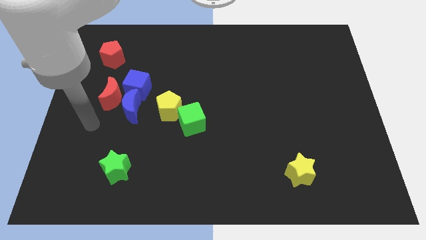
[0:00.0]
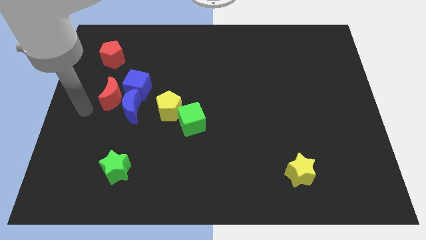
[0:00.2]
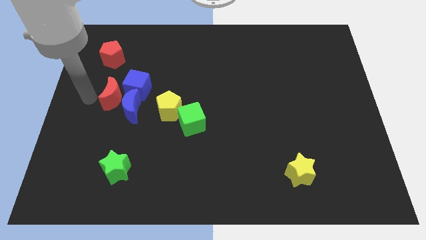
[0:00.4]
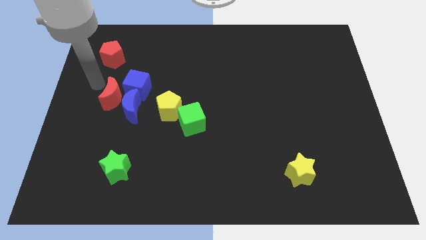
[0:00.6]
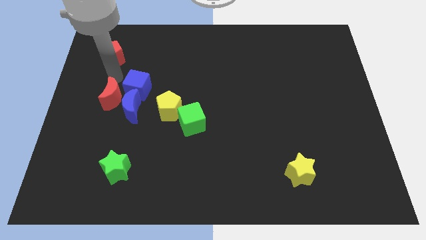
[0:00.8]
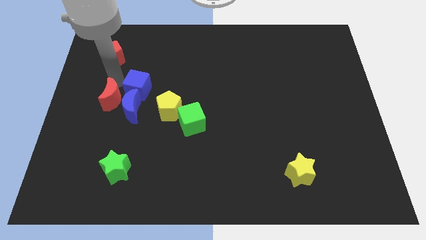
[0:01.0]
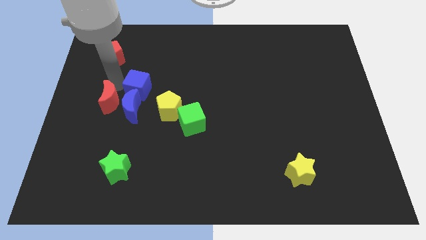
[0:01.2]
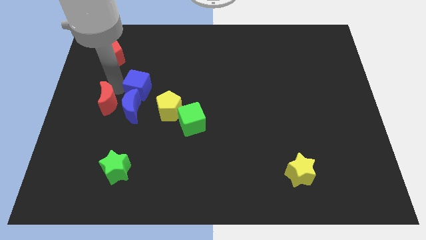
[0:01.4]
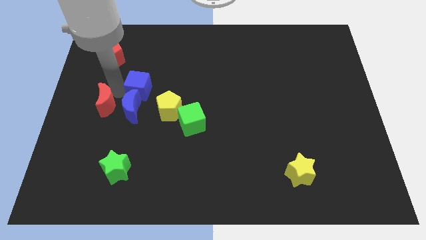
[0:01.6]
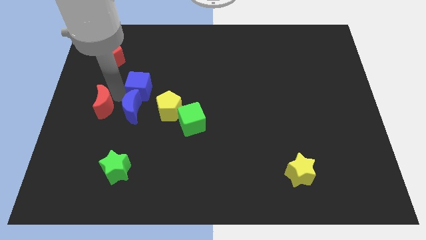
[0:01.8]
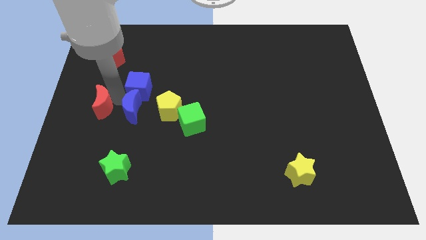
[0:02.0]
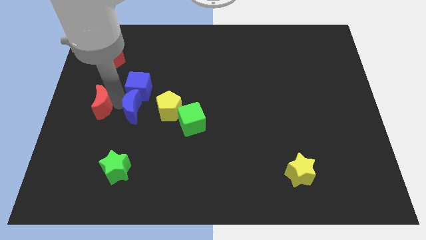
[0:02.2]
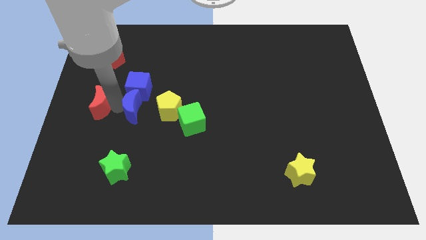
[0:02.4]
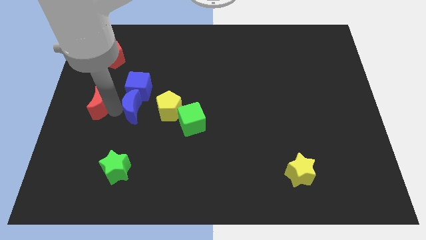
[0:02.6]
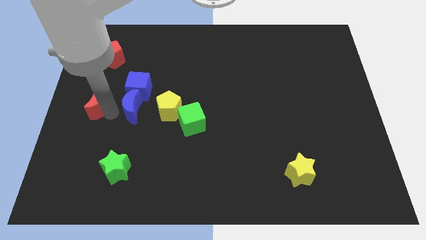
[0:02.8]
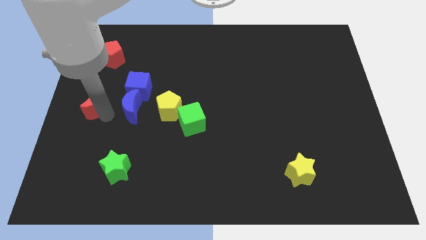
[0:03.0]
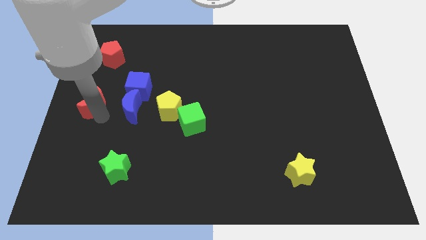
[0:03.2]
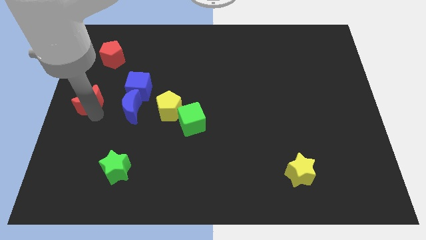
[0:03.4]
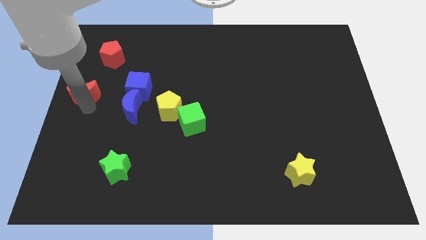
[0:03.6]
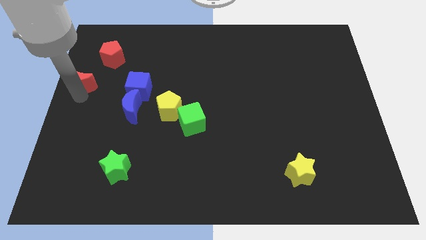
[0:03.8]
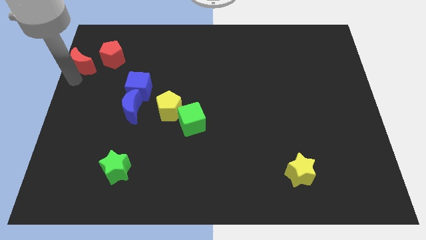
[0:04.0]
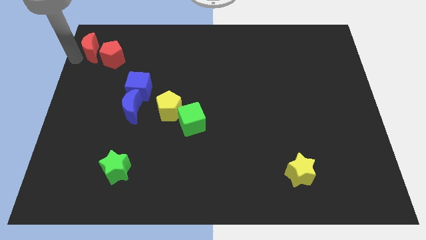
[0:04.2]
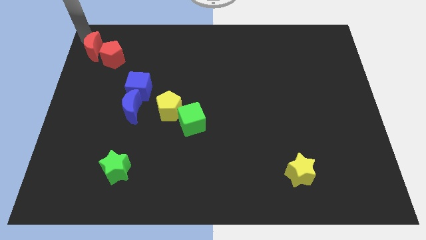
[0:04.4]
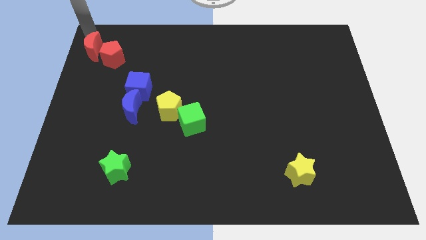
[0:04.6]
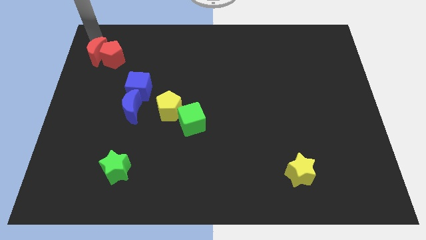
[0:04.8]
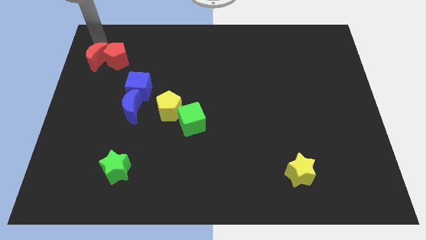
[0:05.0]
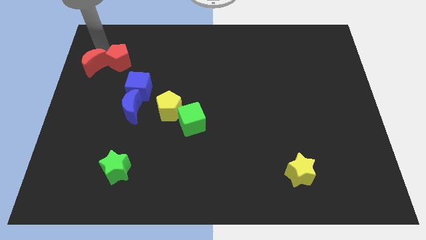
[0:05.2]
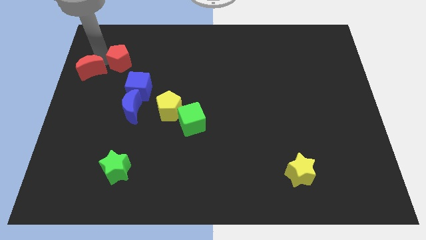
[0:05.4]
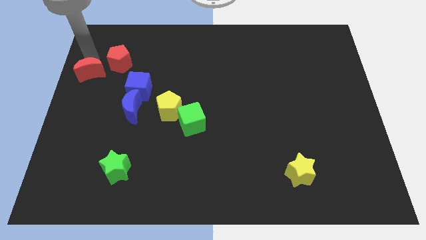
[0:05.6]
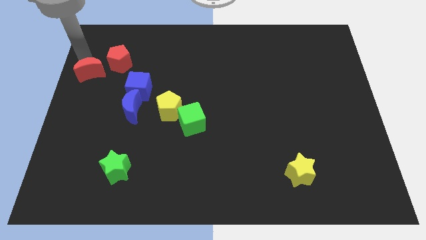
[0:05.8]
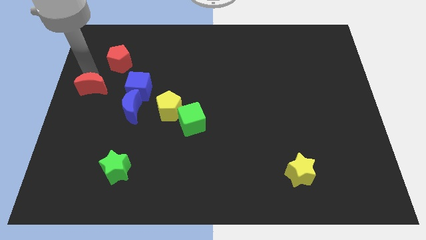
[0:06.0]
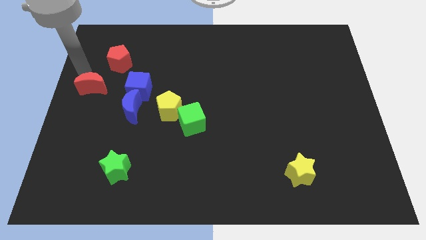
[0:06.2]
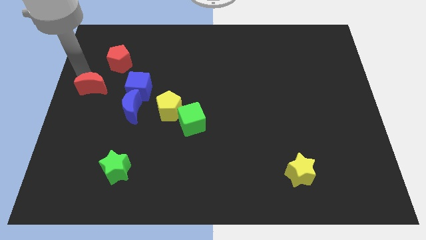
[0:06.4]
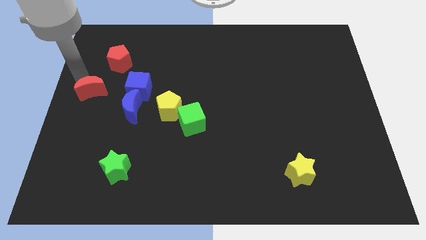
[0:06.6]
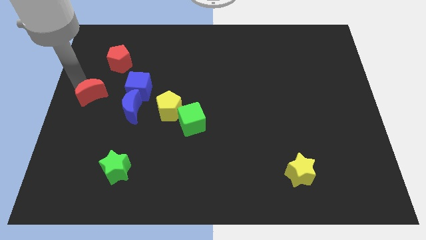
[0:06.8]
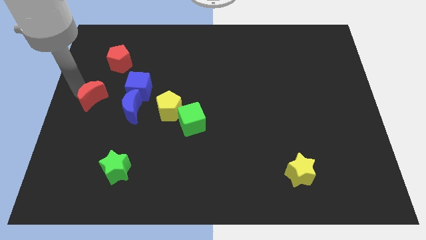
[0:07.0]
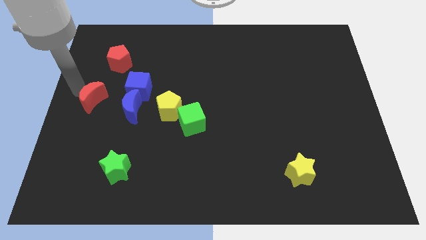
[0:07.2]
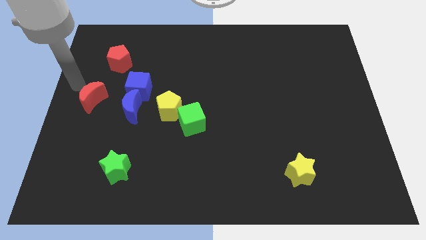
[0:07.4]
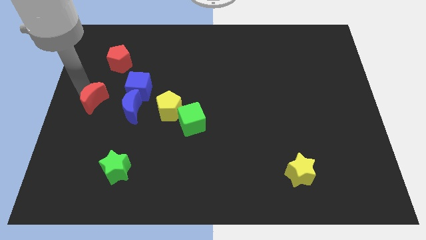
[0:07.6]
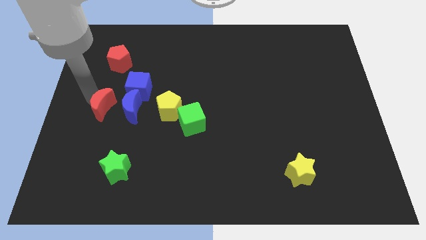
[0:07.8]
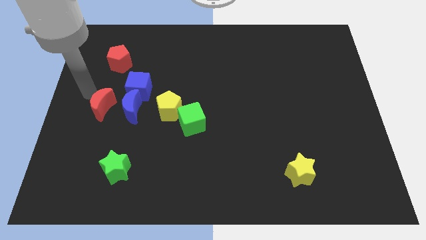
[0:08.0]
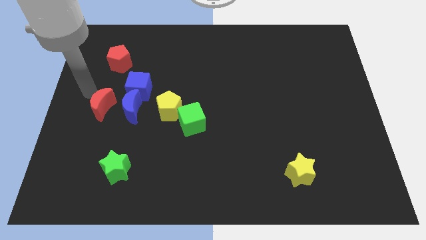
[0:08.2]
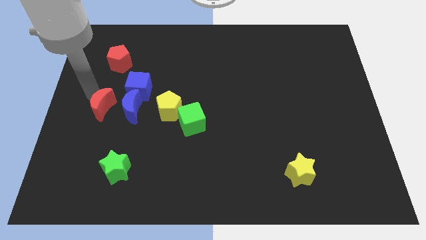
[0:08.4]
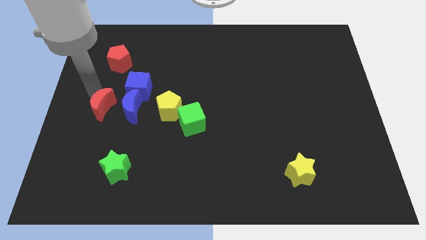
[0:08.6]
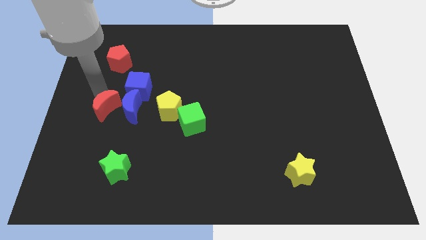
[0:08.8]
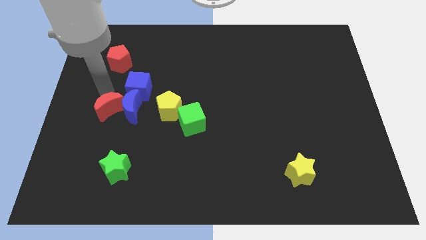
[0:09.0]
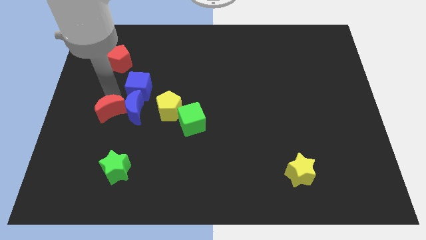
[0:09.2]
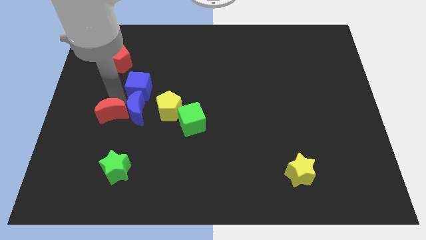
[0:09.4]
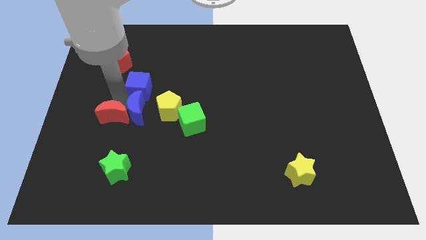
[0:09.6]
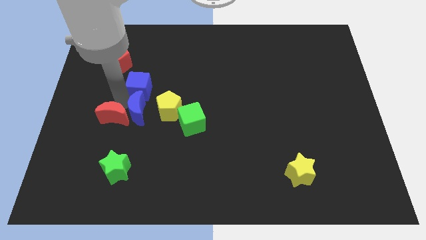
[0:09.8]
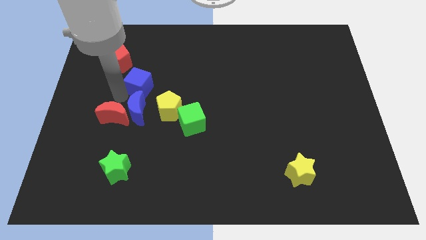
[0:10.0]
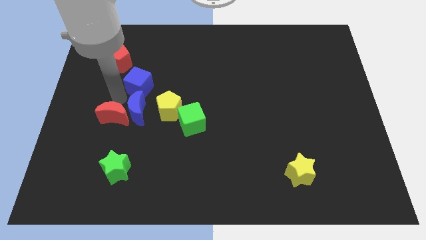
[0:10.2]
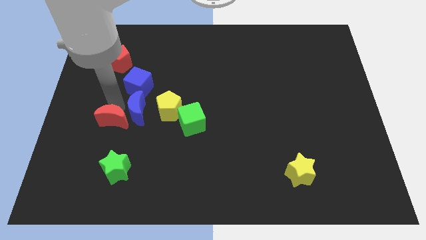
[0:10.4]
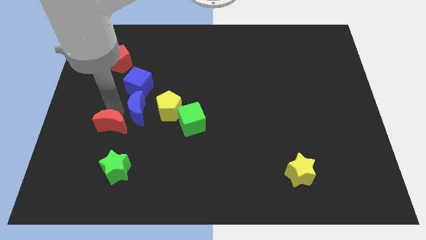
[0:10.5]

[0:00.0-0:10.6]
push the red moon a bit down

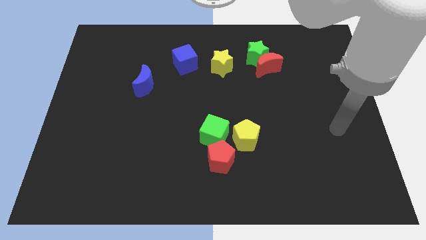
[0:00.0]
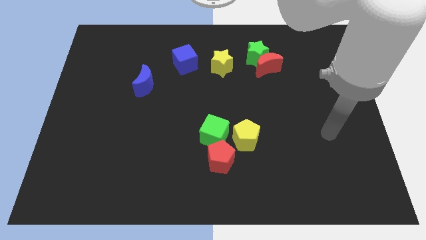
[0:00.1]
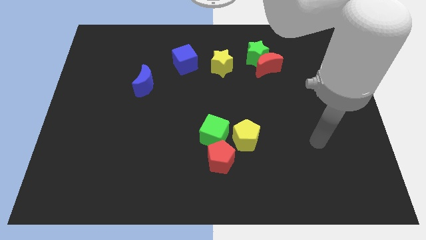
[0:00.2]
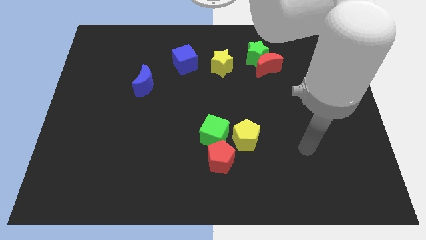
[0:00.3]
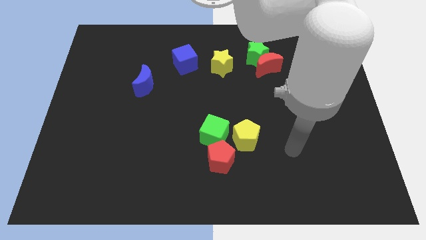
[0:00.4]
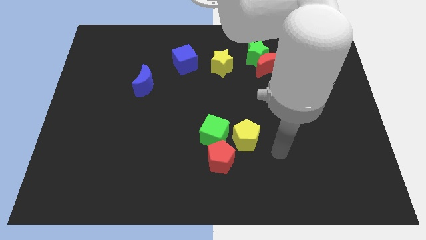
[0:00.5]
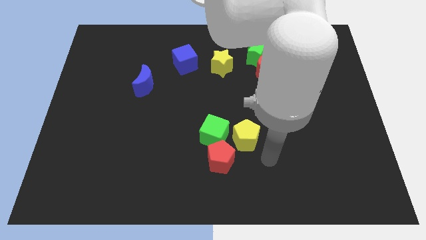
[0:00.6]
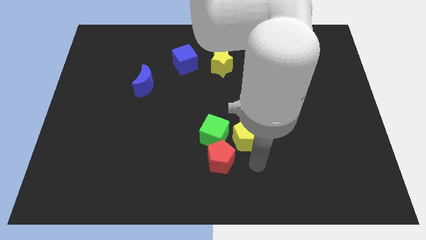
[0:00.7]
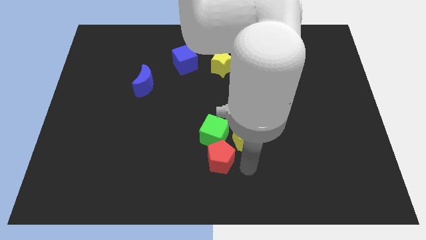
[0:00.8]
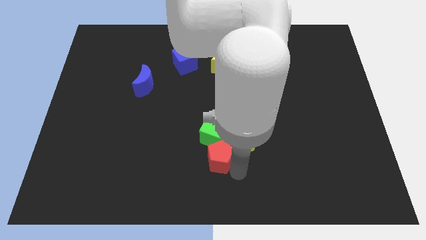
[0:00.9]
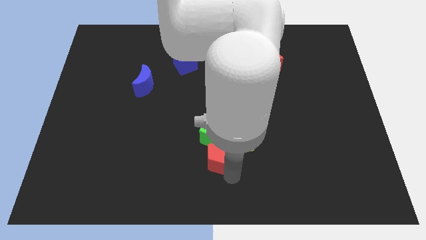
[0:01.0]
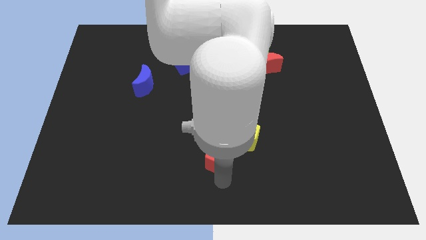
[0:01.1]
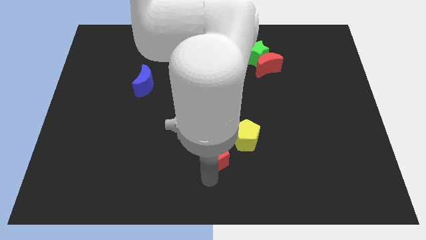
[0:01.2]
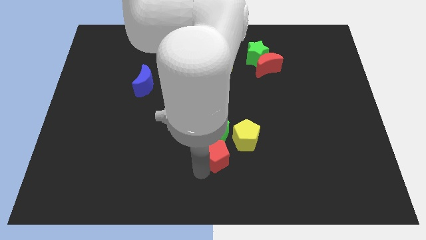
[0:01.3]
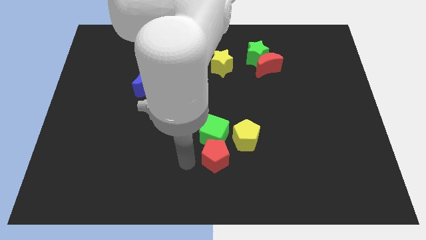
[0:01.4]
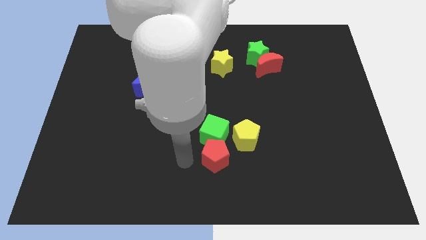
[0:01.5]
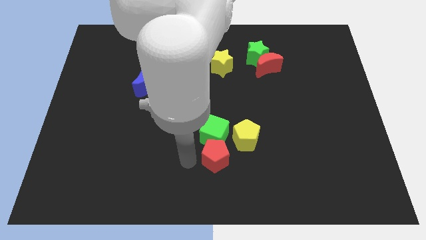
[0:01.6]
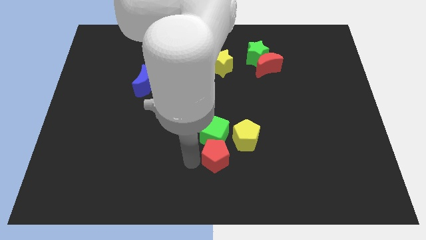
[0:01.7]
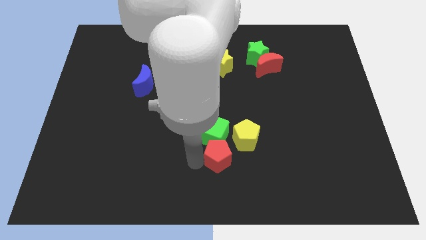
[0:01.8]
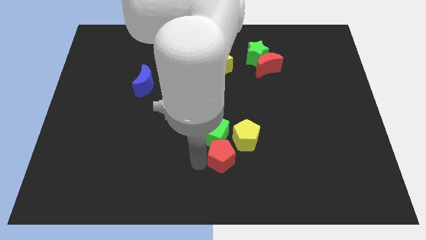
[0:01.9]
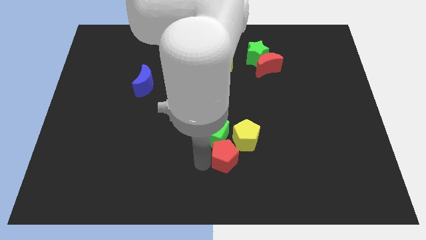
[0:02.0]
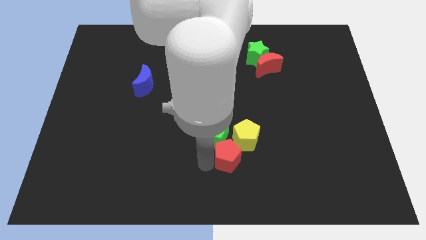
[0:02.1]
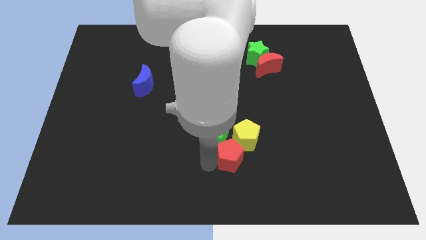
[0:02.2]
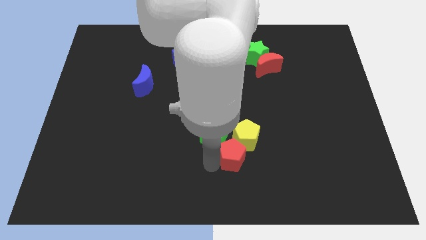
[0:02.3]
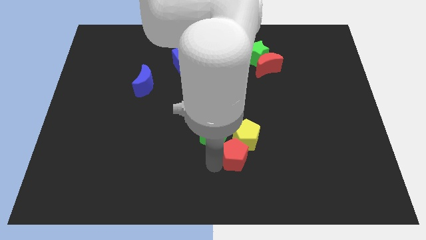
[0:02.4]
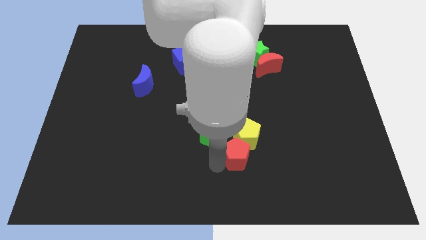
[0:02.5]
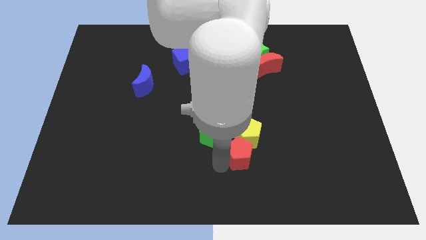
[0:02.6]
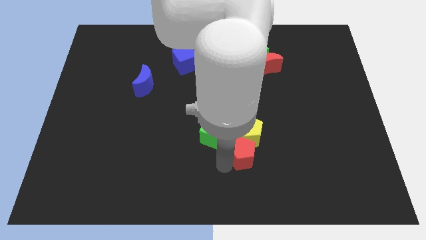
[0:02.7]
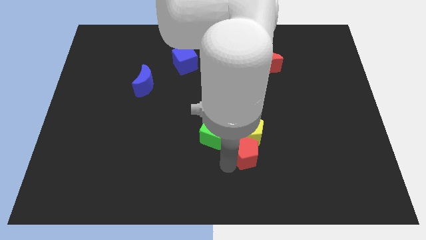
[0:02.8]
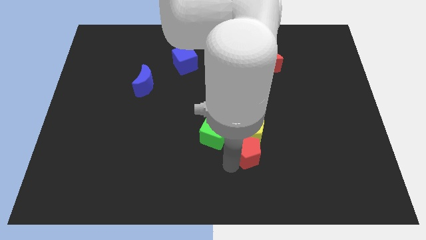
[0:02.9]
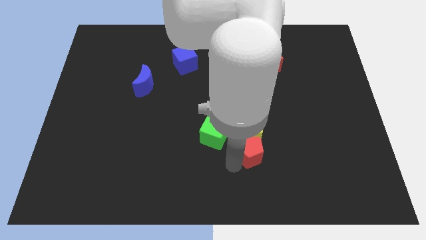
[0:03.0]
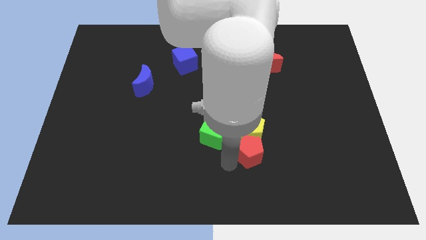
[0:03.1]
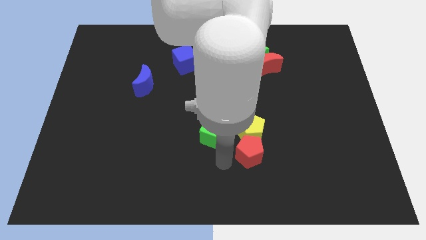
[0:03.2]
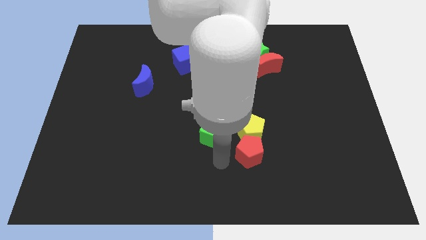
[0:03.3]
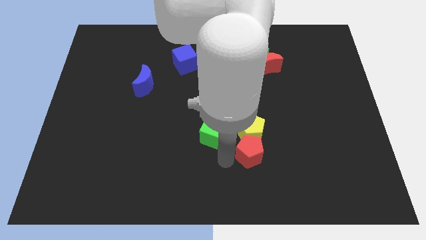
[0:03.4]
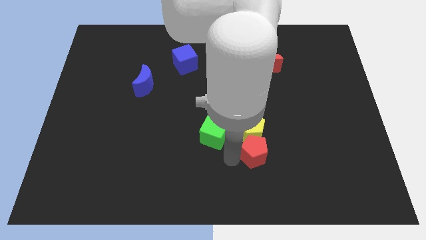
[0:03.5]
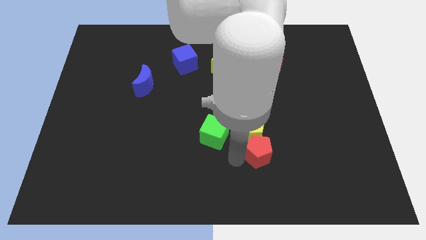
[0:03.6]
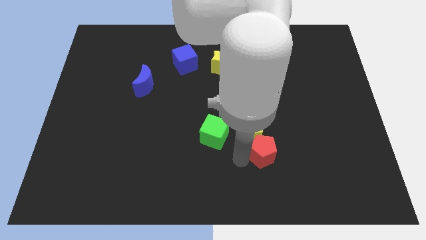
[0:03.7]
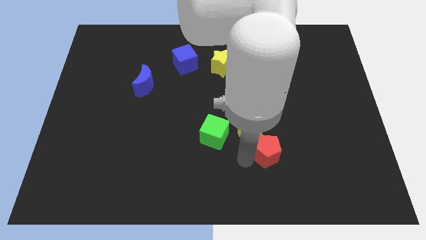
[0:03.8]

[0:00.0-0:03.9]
slightly slide the red pentagon upwards and then to the right
